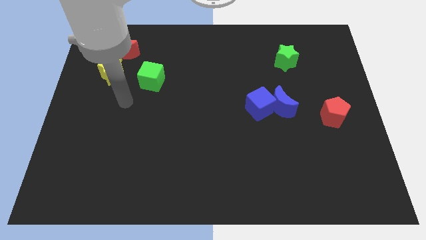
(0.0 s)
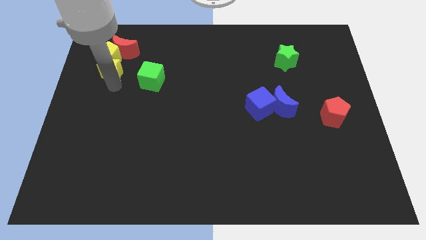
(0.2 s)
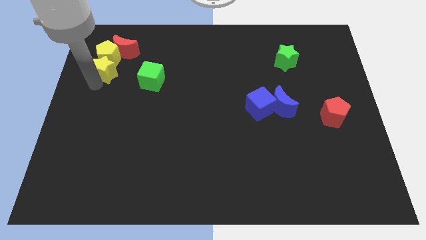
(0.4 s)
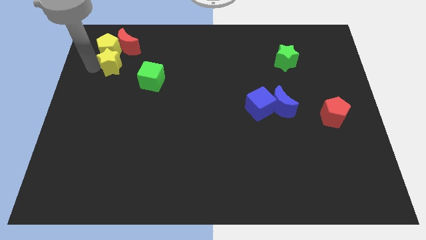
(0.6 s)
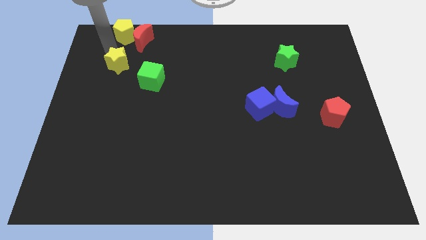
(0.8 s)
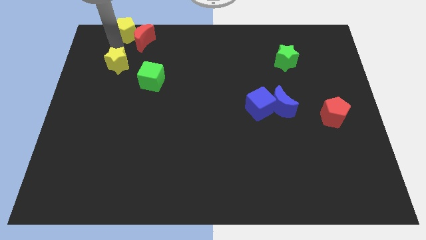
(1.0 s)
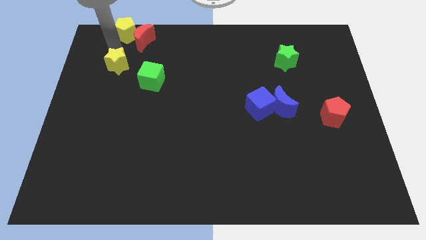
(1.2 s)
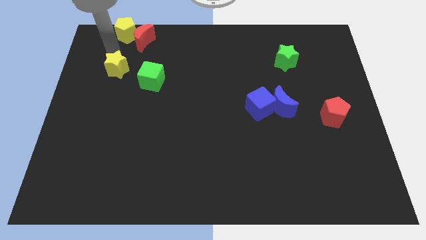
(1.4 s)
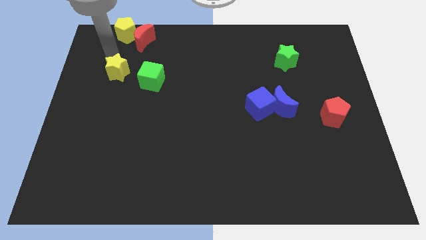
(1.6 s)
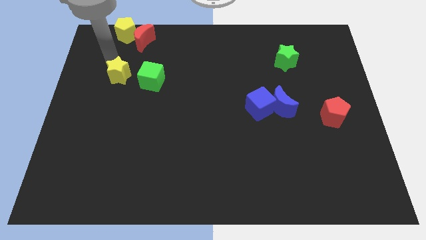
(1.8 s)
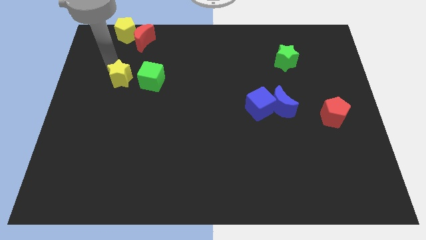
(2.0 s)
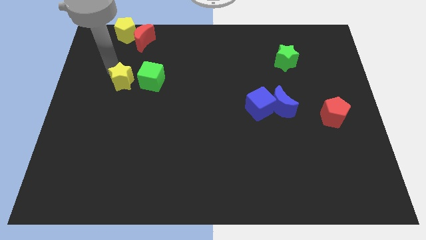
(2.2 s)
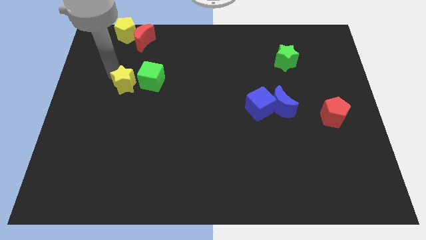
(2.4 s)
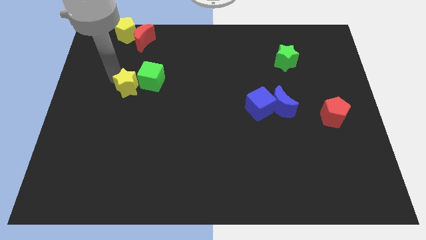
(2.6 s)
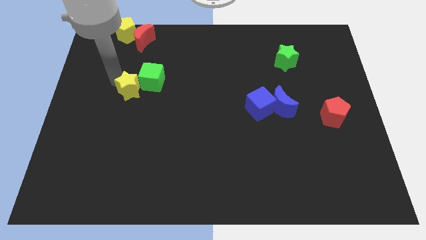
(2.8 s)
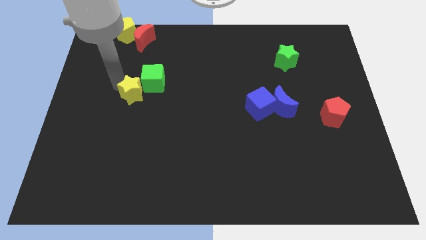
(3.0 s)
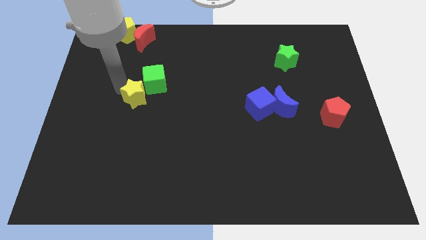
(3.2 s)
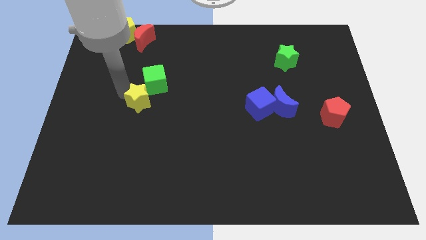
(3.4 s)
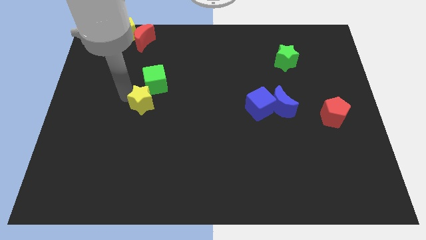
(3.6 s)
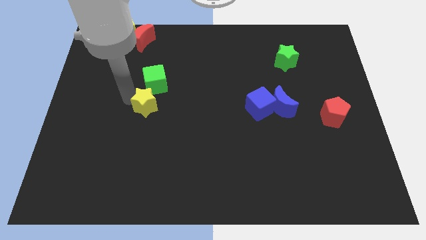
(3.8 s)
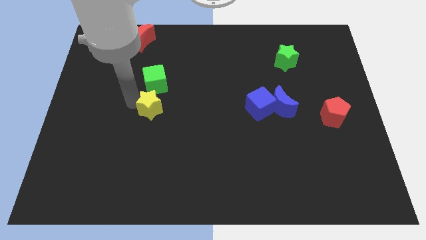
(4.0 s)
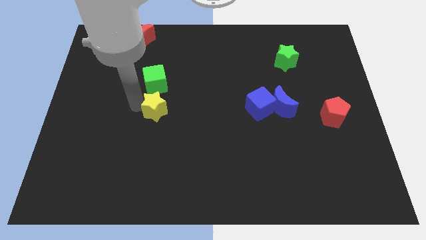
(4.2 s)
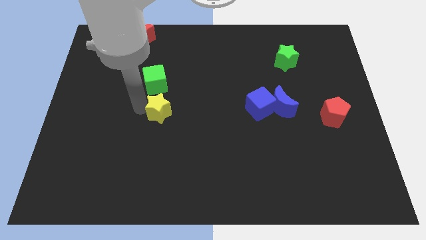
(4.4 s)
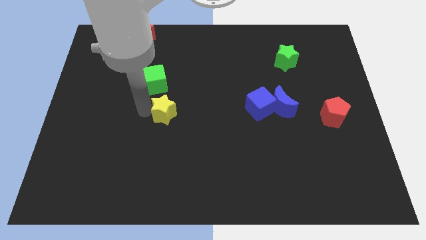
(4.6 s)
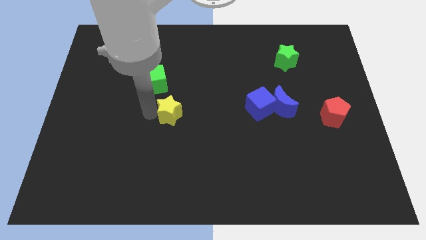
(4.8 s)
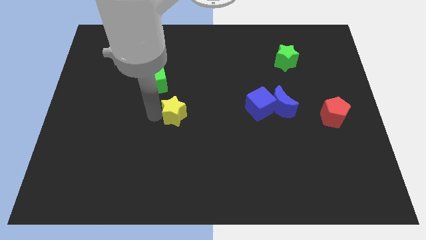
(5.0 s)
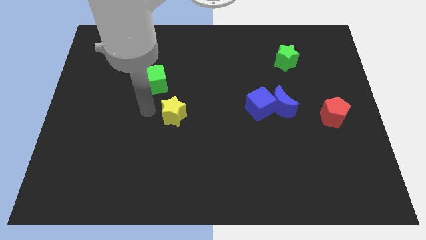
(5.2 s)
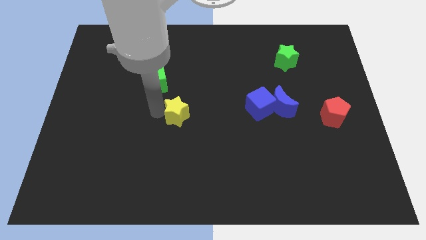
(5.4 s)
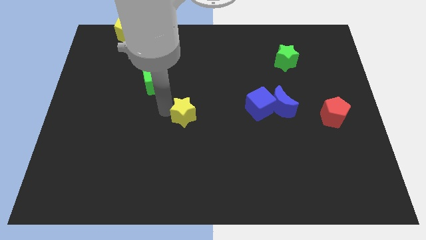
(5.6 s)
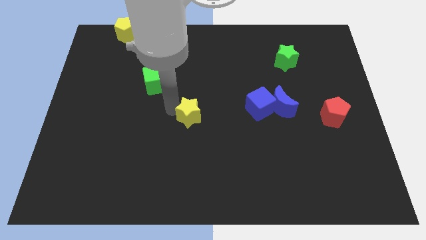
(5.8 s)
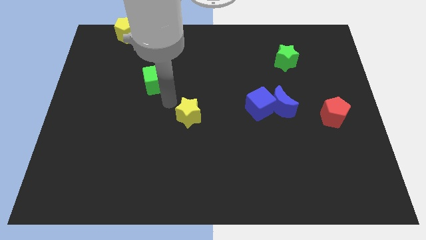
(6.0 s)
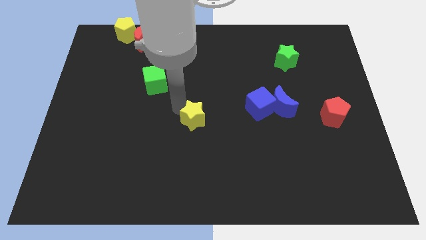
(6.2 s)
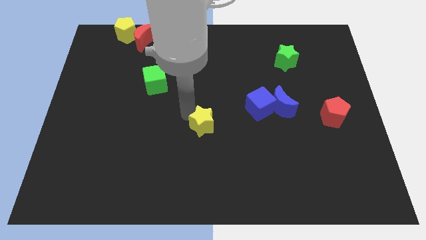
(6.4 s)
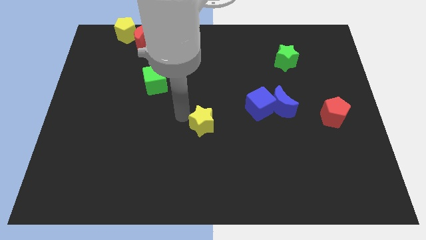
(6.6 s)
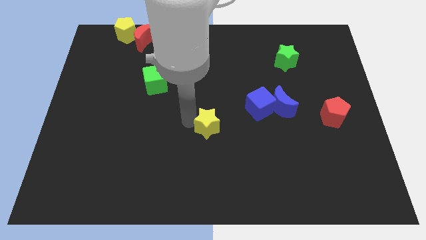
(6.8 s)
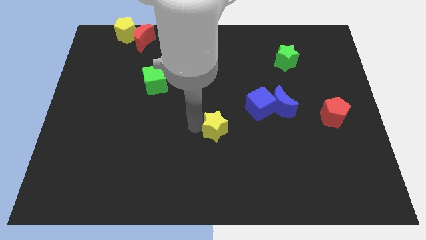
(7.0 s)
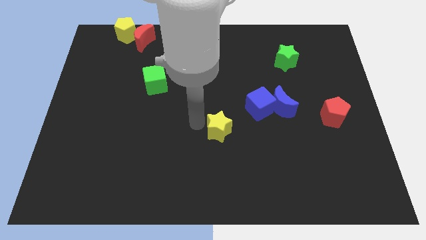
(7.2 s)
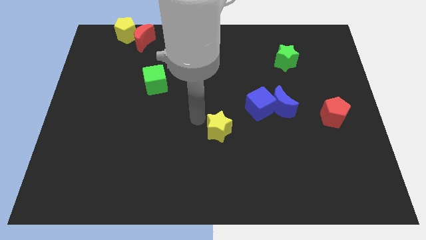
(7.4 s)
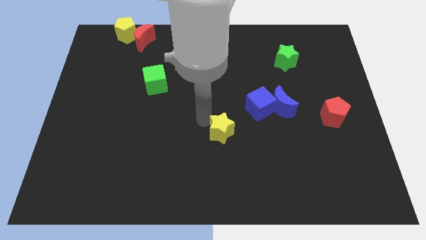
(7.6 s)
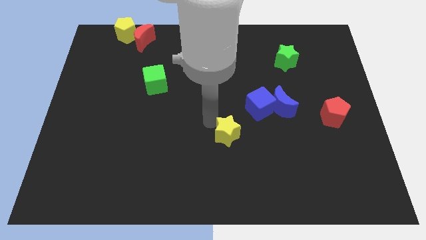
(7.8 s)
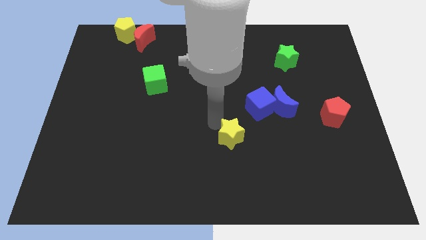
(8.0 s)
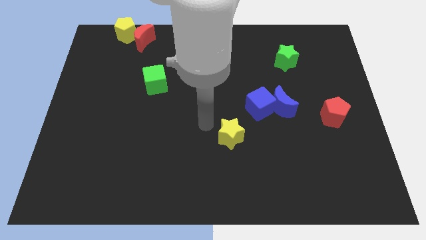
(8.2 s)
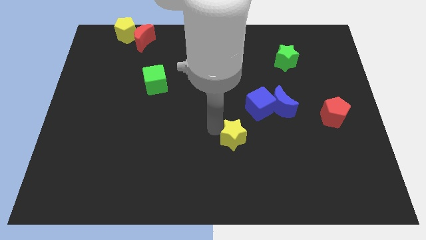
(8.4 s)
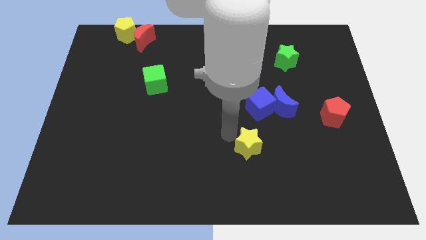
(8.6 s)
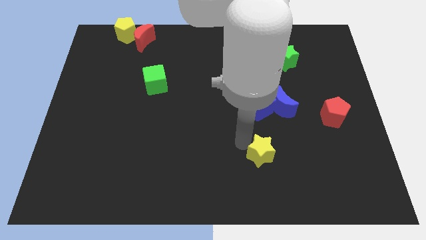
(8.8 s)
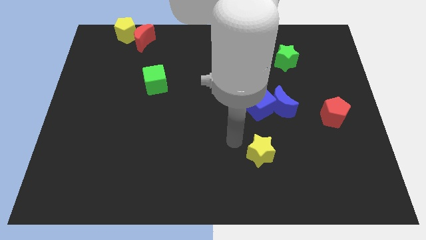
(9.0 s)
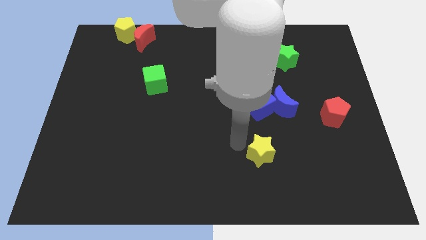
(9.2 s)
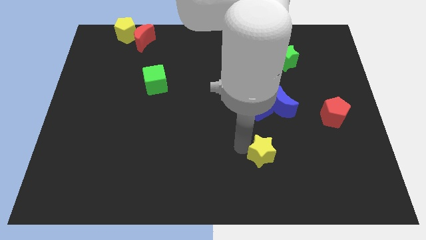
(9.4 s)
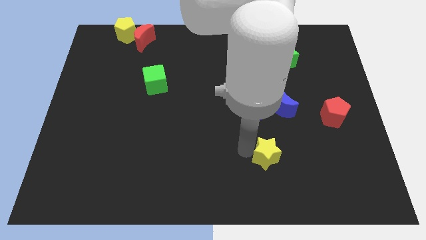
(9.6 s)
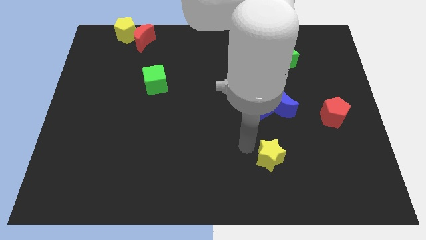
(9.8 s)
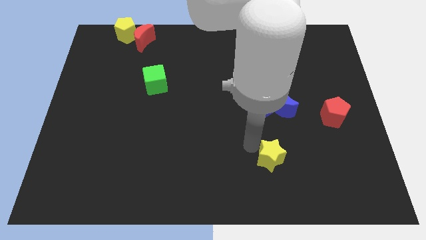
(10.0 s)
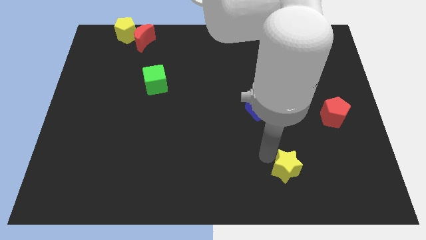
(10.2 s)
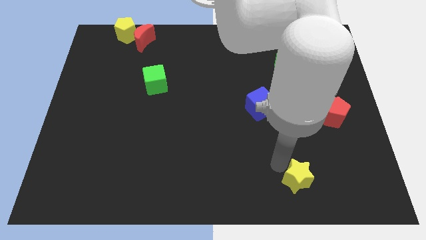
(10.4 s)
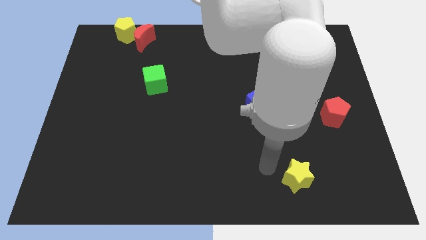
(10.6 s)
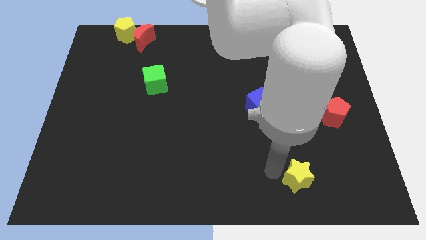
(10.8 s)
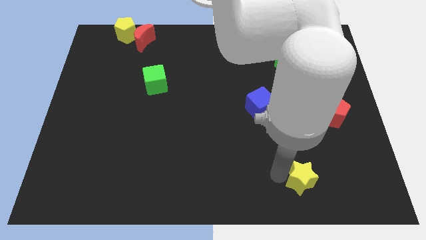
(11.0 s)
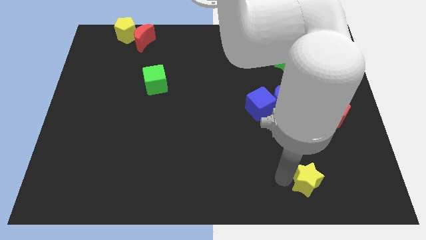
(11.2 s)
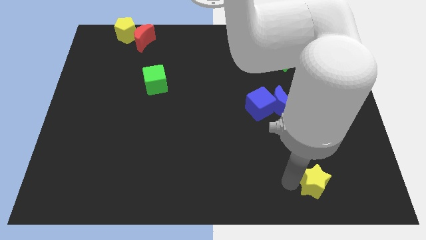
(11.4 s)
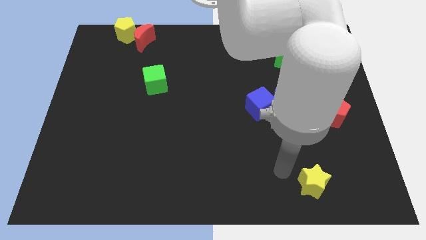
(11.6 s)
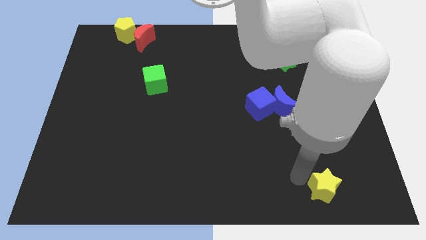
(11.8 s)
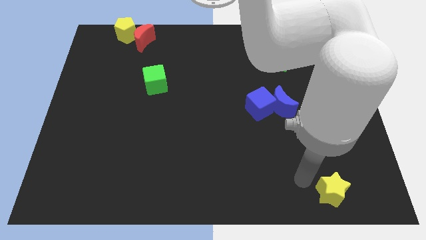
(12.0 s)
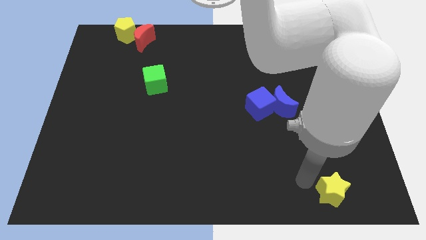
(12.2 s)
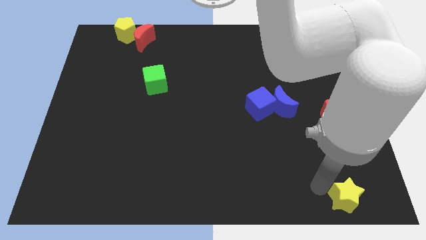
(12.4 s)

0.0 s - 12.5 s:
put the yellow star to the bottom right
